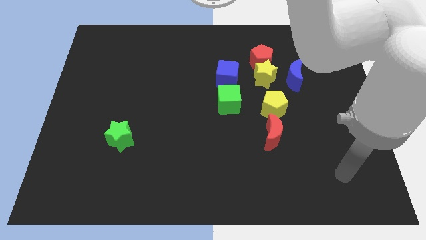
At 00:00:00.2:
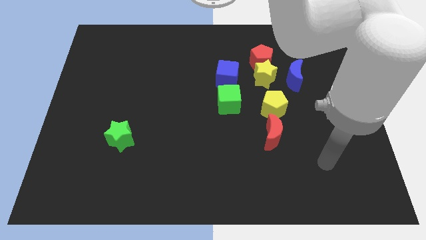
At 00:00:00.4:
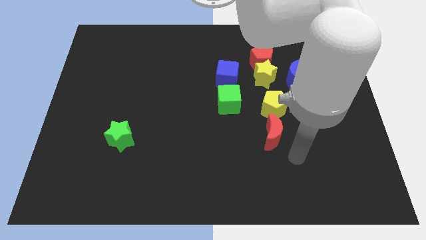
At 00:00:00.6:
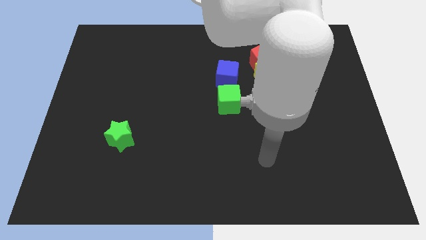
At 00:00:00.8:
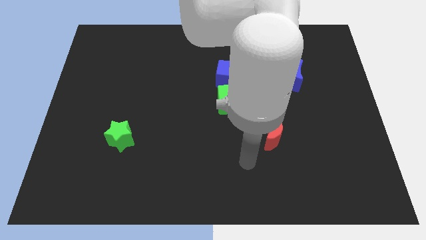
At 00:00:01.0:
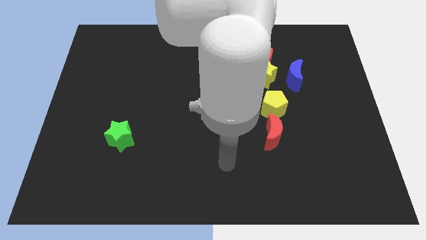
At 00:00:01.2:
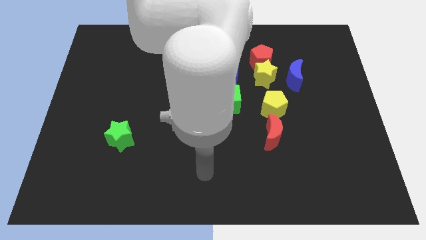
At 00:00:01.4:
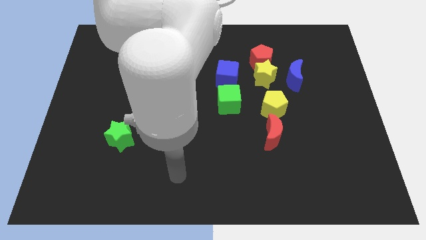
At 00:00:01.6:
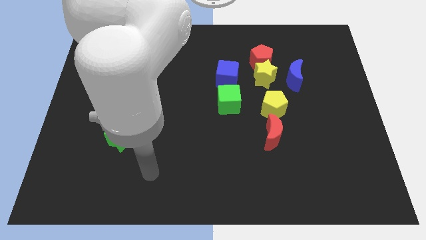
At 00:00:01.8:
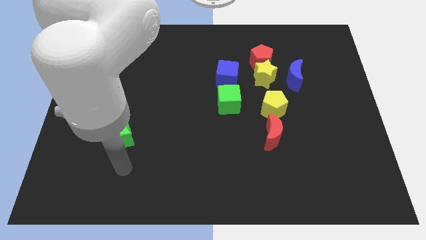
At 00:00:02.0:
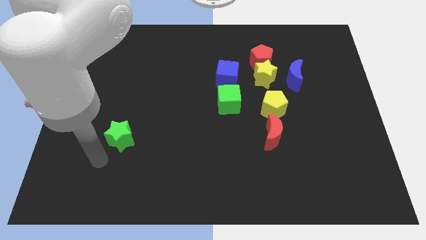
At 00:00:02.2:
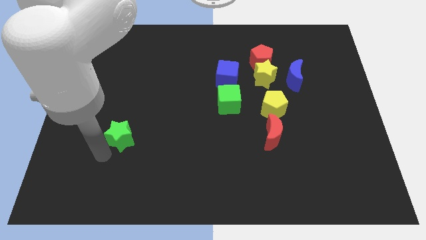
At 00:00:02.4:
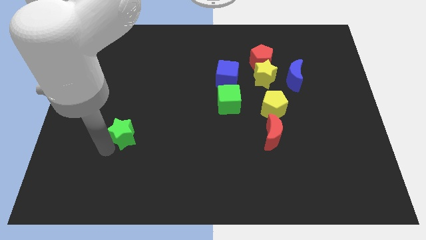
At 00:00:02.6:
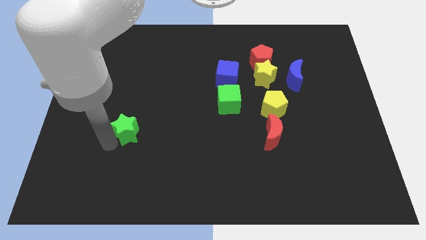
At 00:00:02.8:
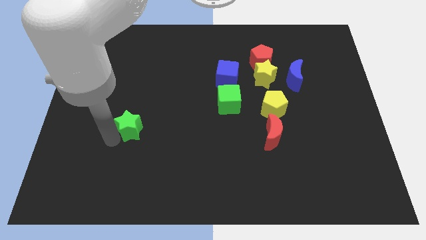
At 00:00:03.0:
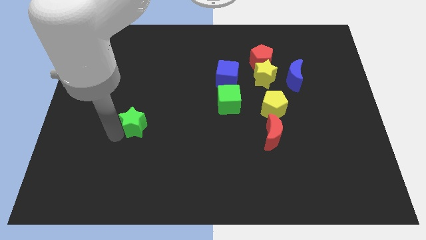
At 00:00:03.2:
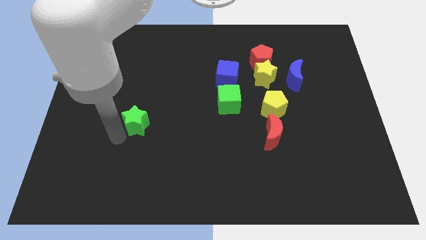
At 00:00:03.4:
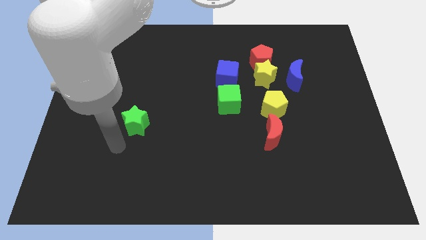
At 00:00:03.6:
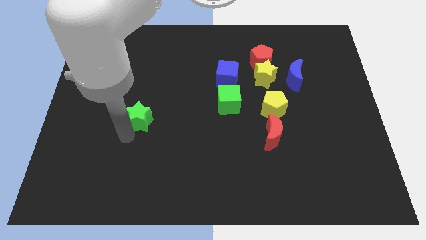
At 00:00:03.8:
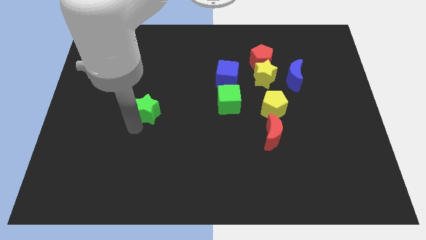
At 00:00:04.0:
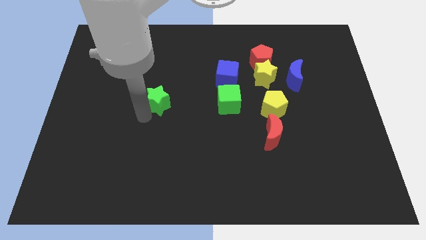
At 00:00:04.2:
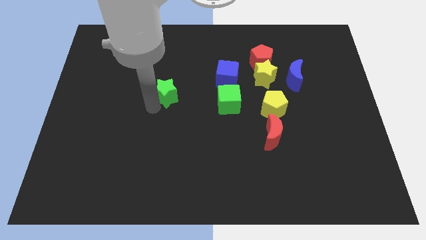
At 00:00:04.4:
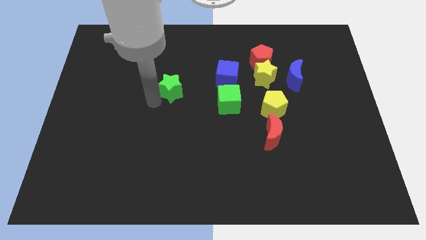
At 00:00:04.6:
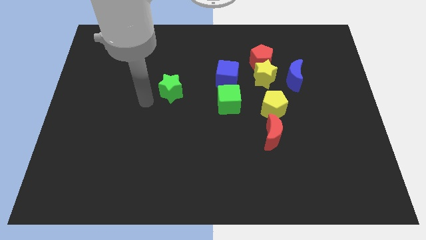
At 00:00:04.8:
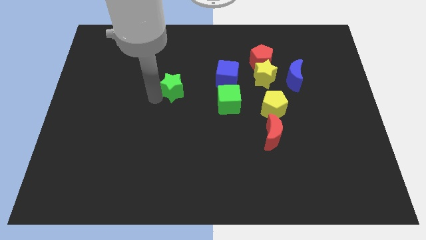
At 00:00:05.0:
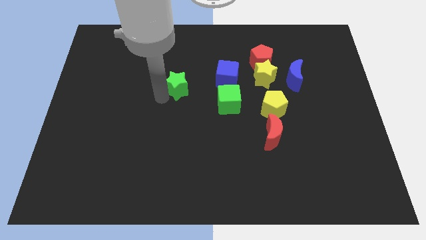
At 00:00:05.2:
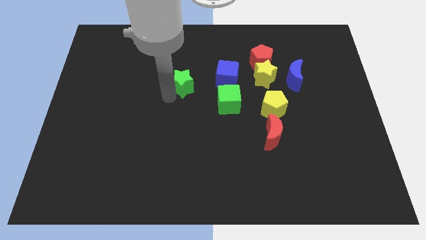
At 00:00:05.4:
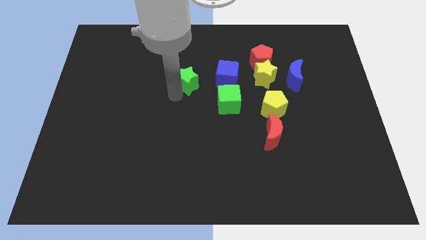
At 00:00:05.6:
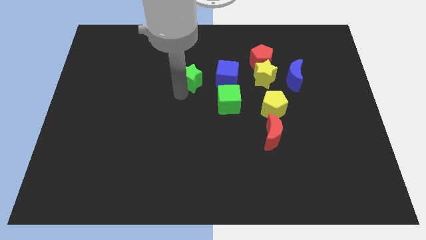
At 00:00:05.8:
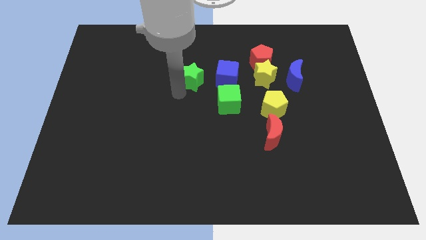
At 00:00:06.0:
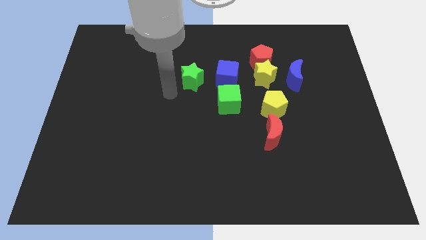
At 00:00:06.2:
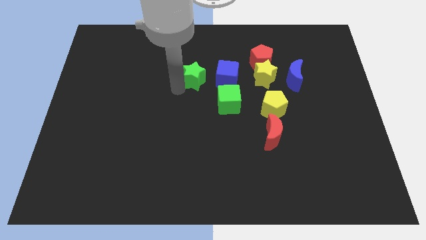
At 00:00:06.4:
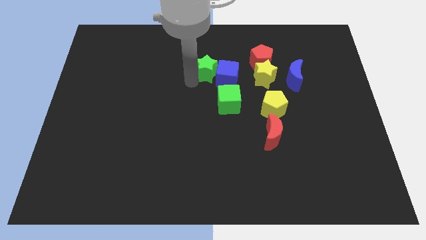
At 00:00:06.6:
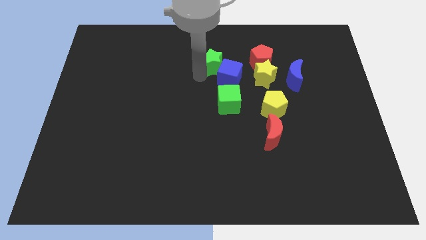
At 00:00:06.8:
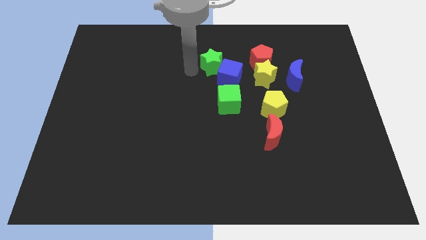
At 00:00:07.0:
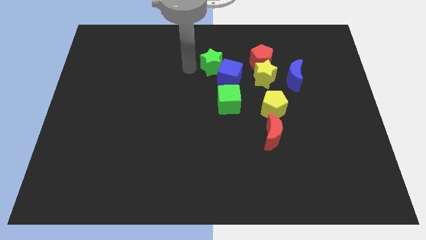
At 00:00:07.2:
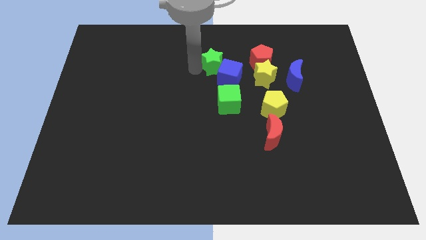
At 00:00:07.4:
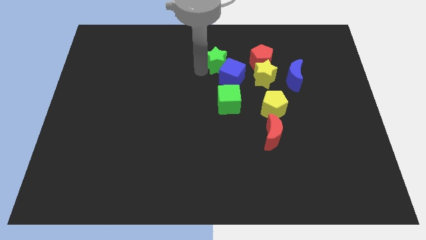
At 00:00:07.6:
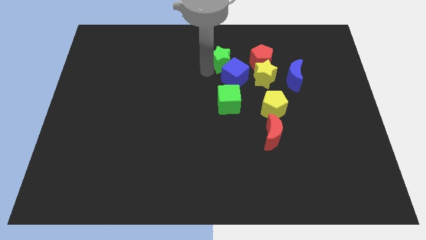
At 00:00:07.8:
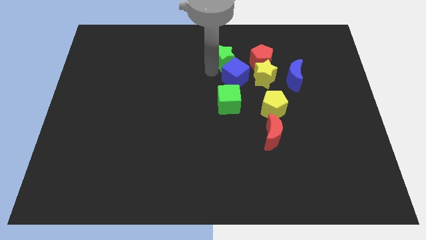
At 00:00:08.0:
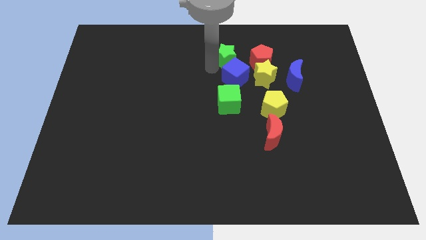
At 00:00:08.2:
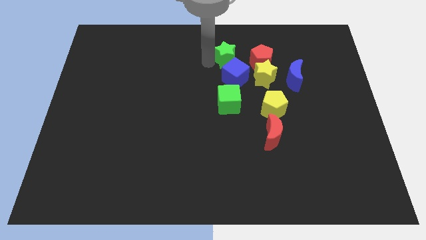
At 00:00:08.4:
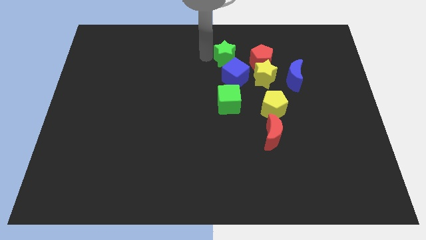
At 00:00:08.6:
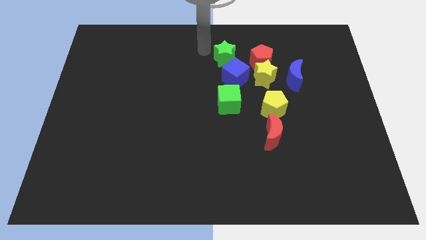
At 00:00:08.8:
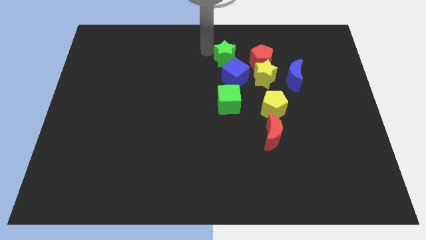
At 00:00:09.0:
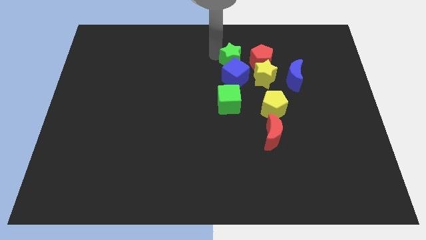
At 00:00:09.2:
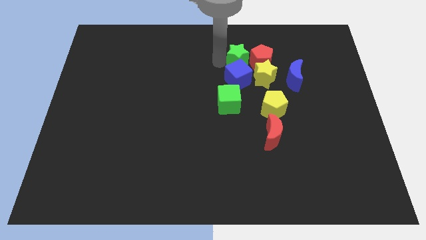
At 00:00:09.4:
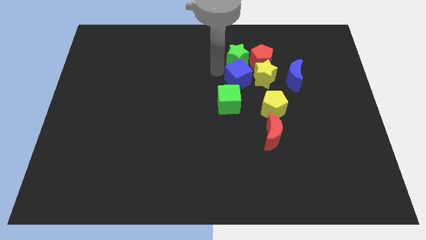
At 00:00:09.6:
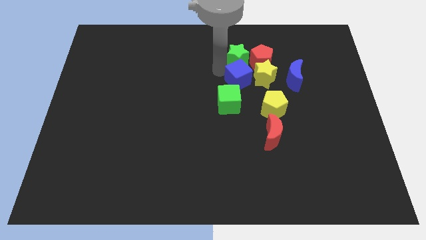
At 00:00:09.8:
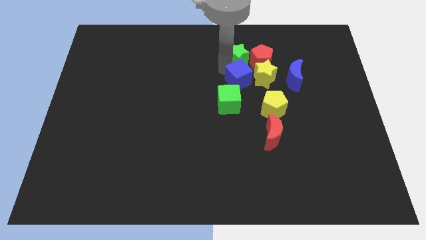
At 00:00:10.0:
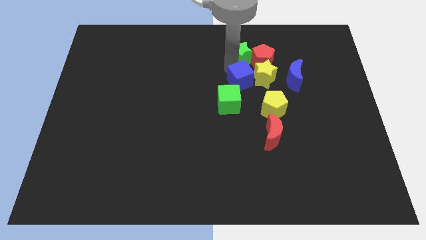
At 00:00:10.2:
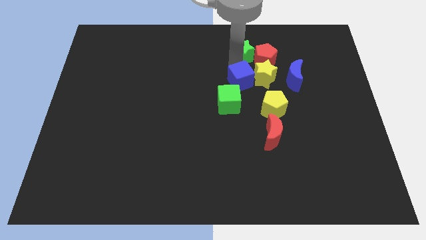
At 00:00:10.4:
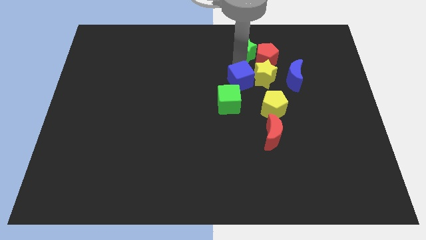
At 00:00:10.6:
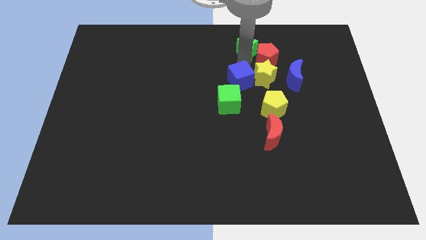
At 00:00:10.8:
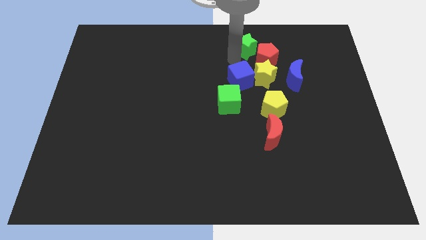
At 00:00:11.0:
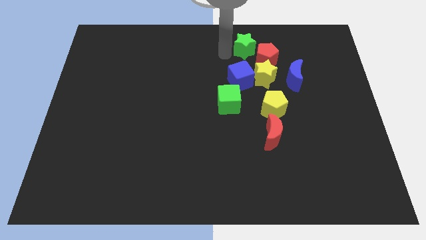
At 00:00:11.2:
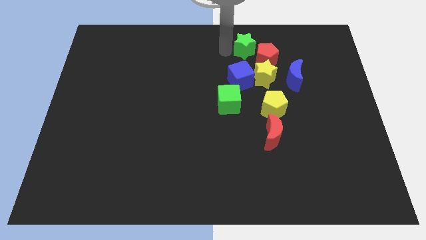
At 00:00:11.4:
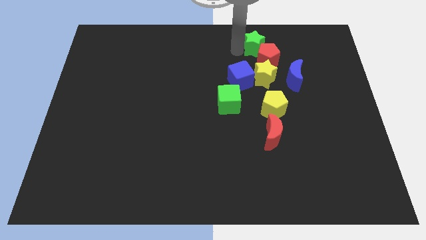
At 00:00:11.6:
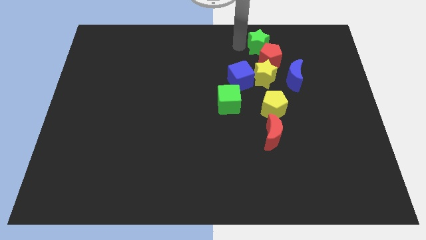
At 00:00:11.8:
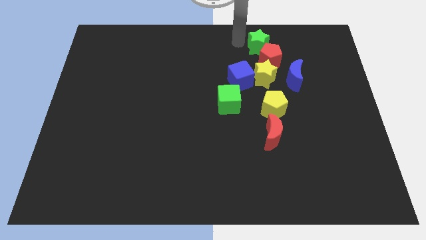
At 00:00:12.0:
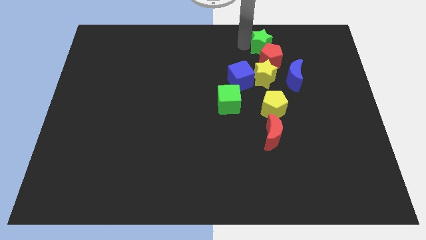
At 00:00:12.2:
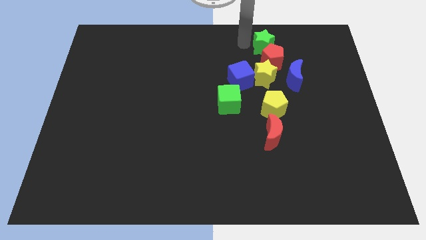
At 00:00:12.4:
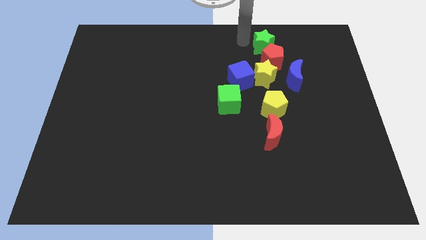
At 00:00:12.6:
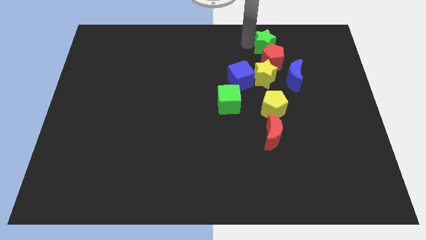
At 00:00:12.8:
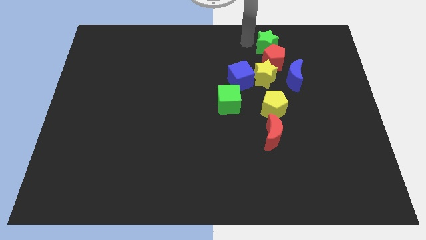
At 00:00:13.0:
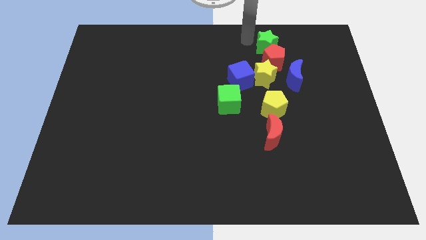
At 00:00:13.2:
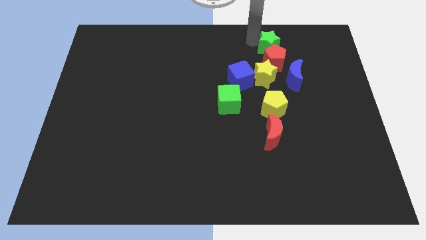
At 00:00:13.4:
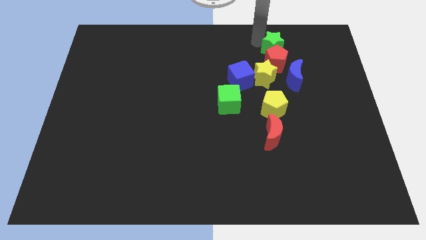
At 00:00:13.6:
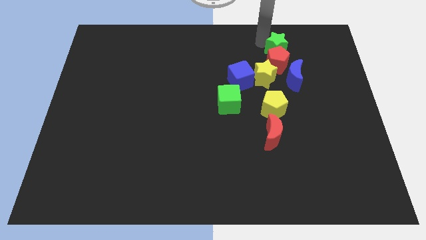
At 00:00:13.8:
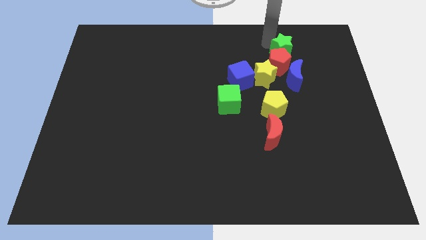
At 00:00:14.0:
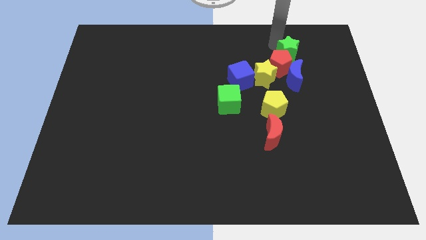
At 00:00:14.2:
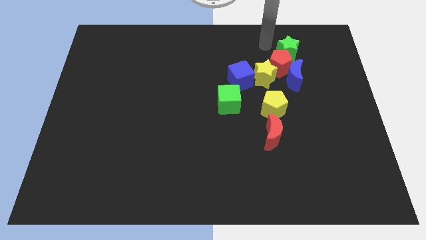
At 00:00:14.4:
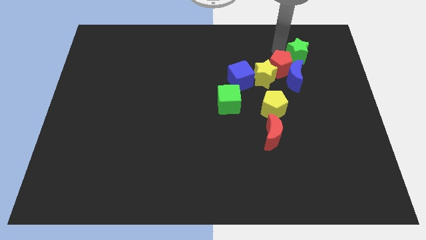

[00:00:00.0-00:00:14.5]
move the green star right of the red pentagon
